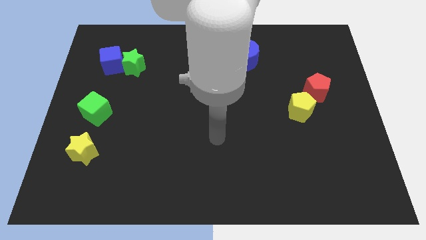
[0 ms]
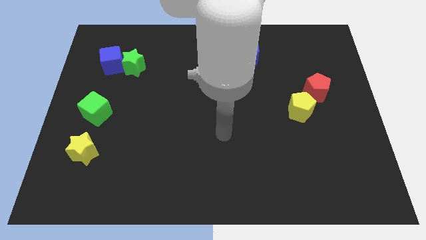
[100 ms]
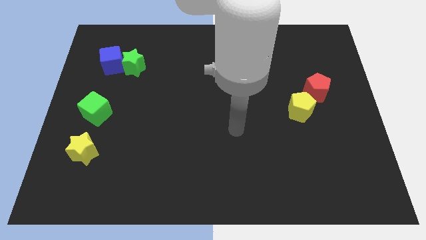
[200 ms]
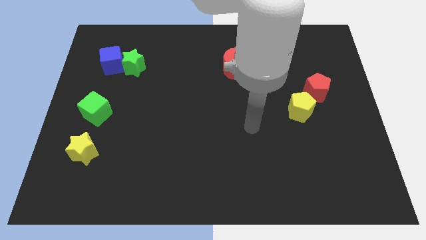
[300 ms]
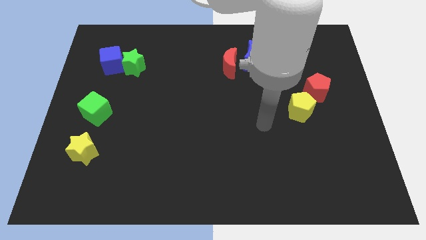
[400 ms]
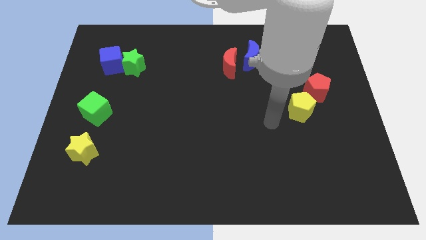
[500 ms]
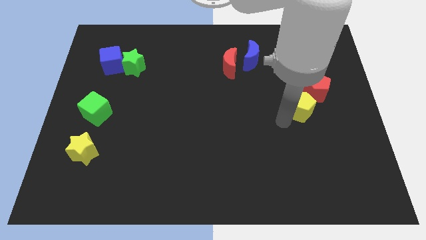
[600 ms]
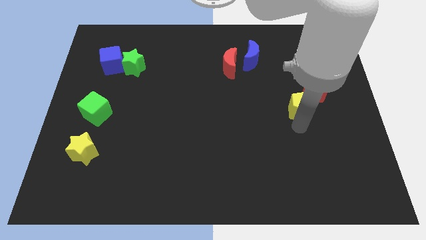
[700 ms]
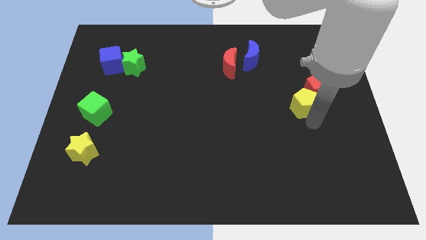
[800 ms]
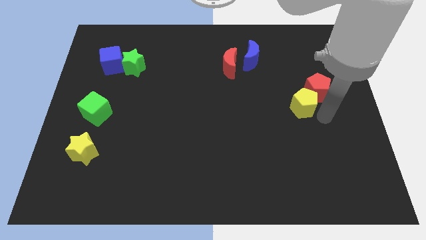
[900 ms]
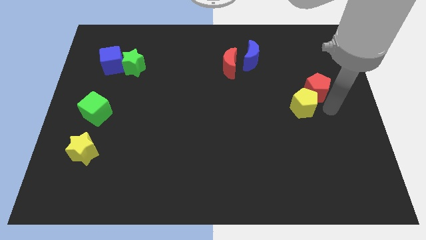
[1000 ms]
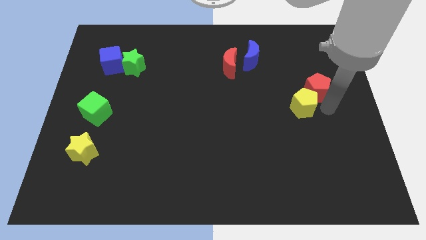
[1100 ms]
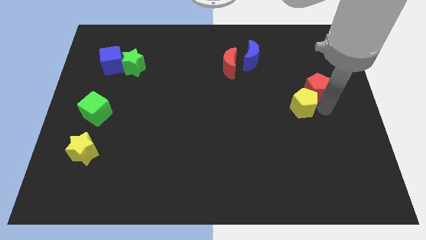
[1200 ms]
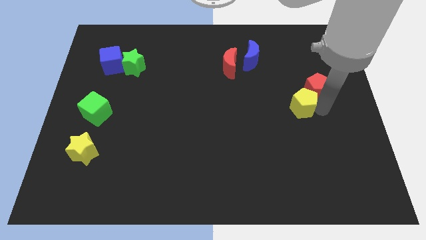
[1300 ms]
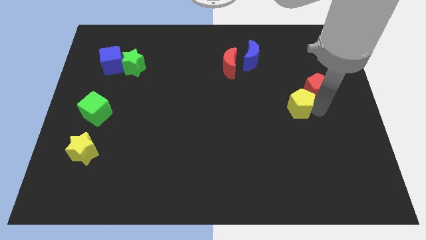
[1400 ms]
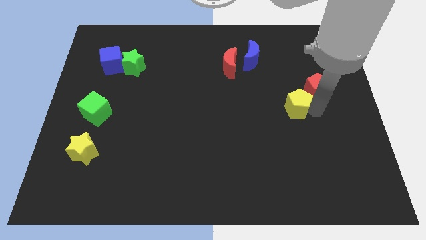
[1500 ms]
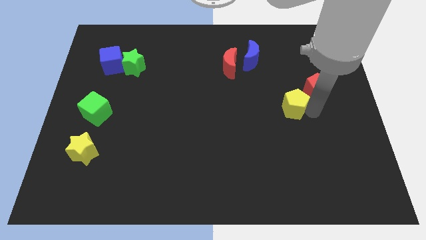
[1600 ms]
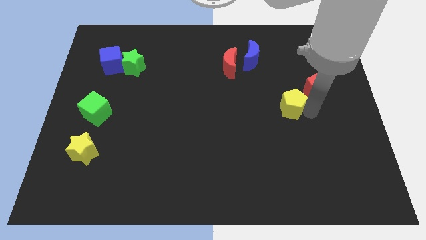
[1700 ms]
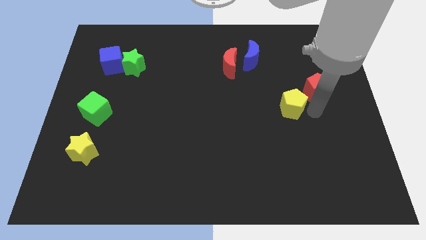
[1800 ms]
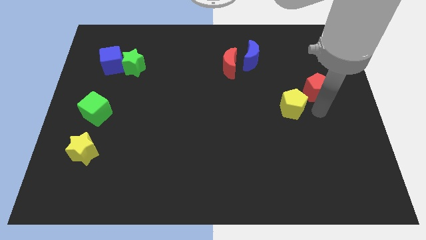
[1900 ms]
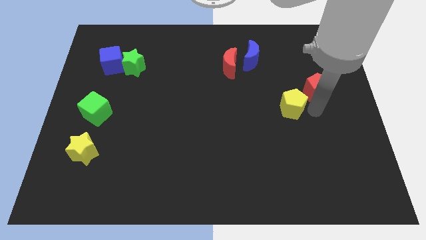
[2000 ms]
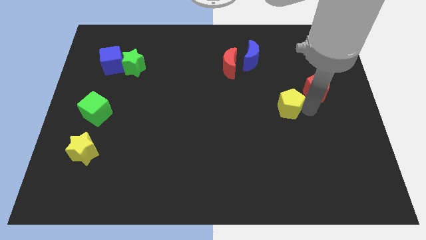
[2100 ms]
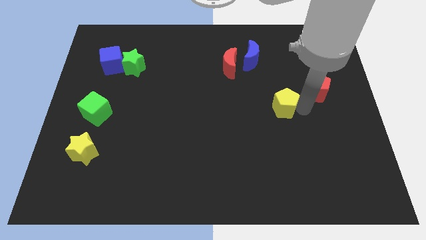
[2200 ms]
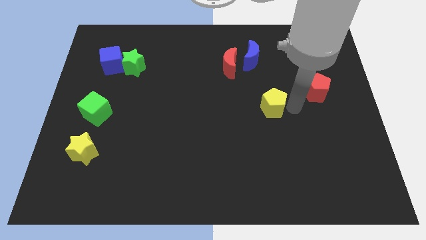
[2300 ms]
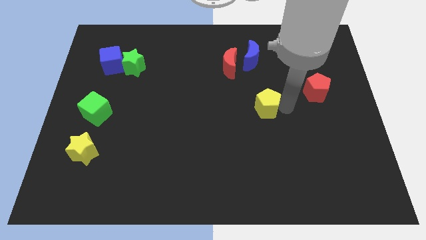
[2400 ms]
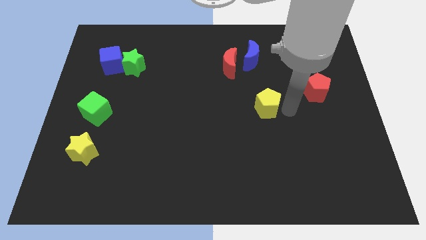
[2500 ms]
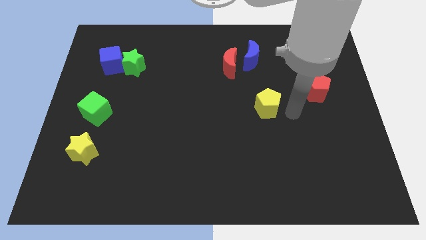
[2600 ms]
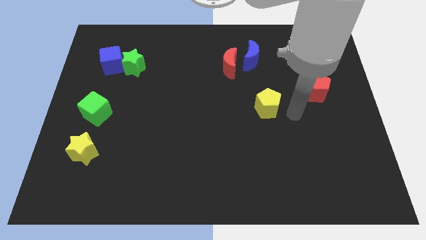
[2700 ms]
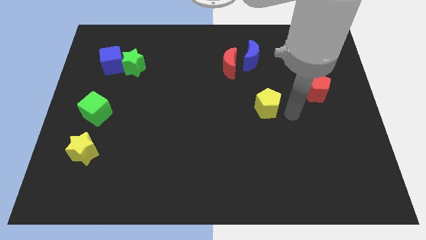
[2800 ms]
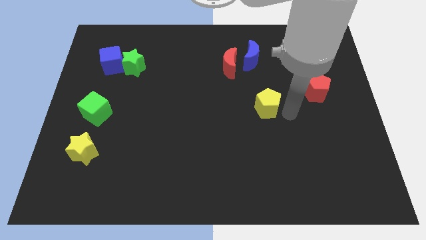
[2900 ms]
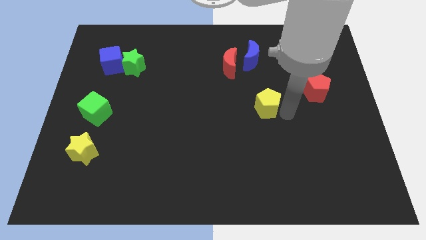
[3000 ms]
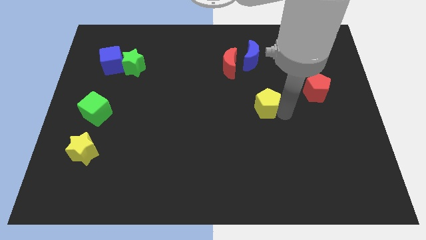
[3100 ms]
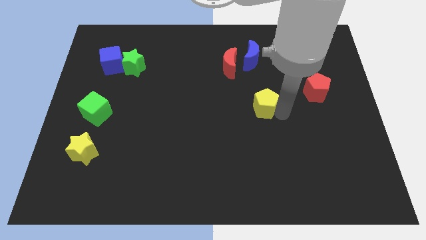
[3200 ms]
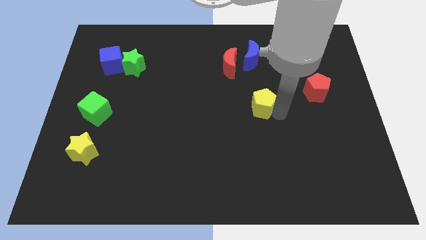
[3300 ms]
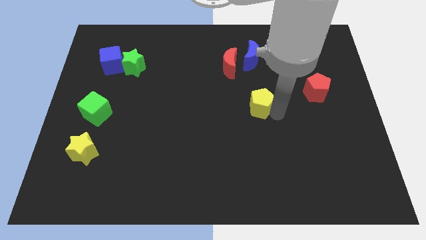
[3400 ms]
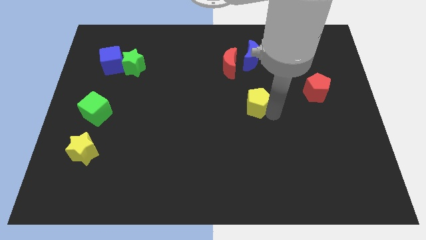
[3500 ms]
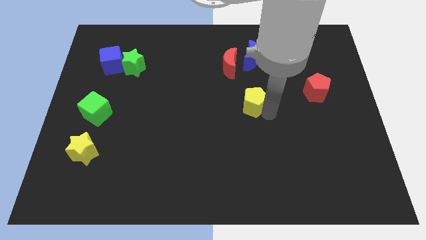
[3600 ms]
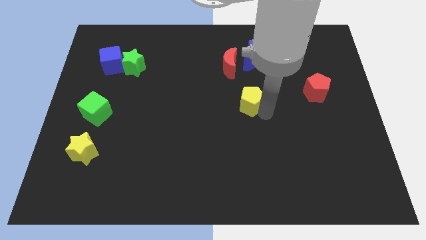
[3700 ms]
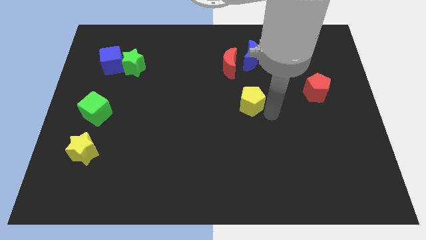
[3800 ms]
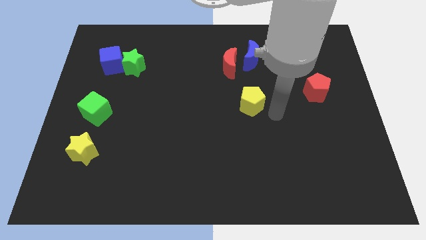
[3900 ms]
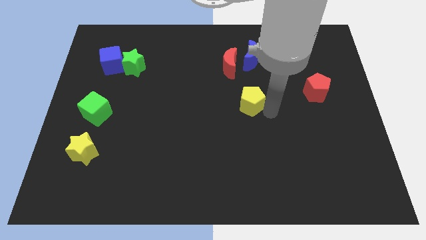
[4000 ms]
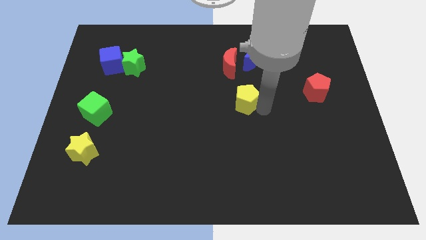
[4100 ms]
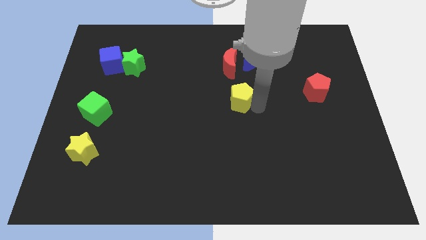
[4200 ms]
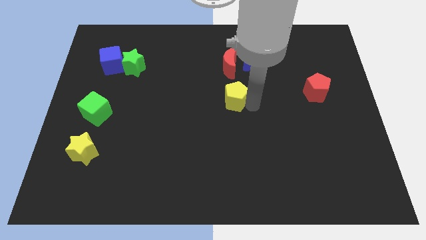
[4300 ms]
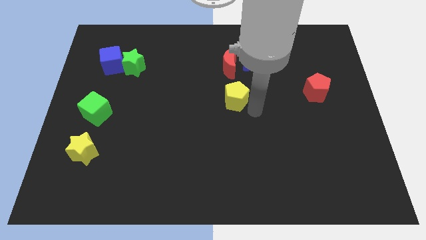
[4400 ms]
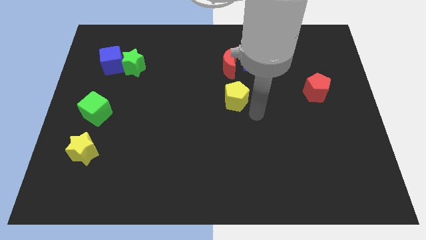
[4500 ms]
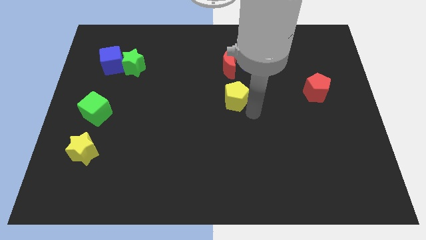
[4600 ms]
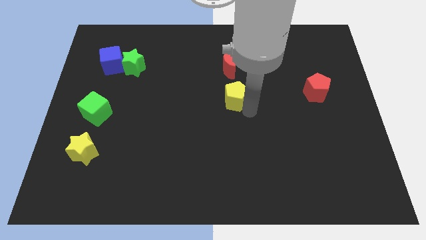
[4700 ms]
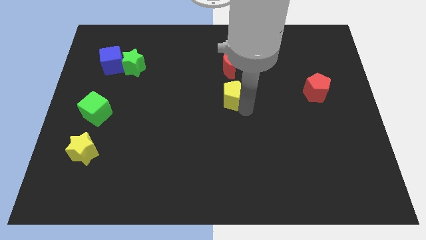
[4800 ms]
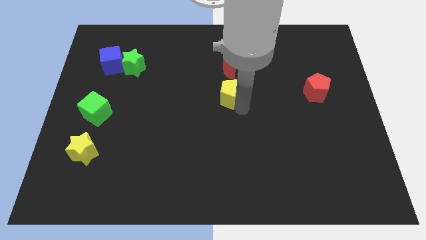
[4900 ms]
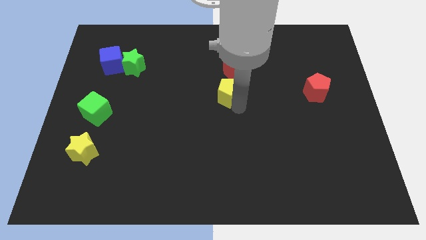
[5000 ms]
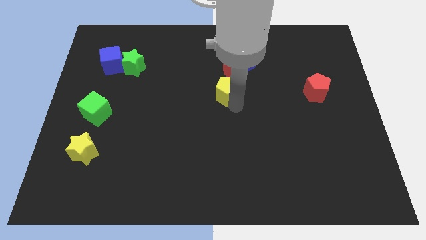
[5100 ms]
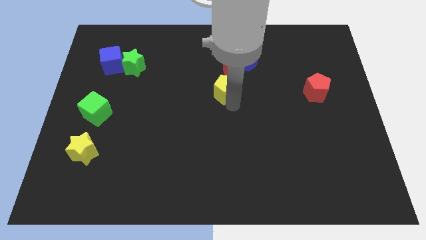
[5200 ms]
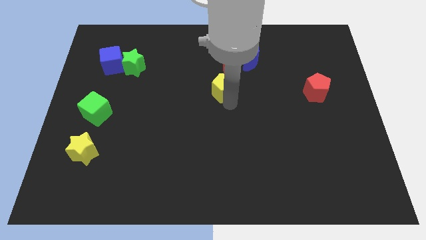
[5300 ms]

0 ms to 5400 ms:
slide the yellow pentagon to the bottom left of the red moon

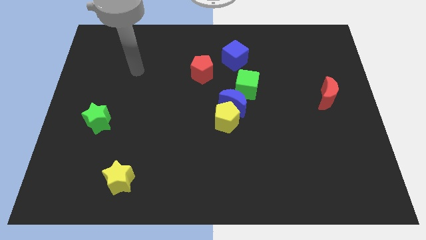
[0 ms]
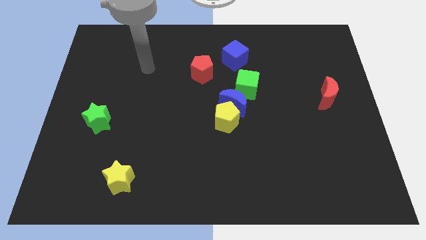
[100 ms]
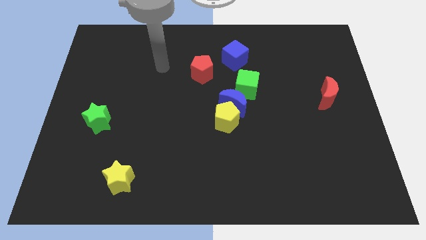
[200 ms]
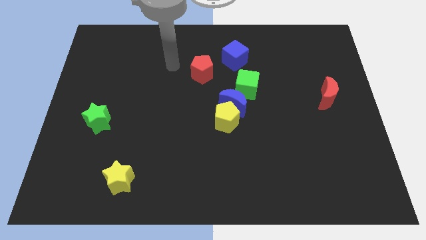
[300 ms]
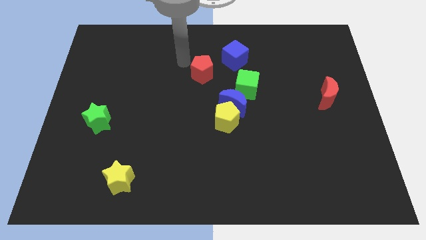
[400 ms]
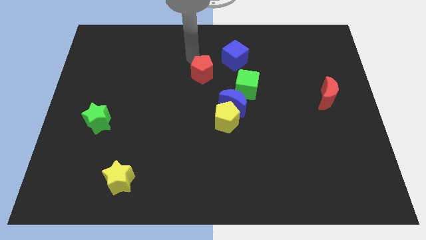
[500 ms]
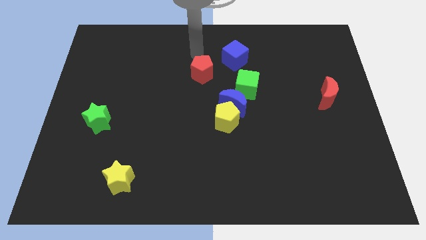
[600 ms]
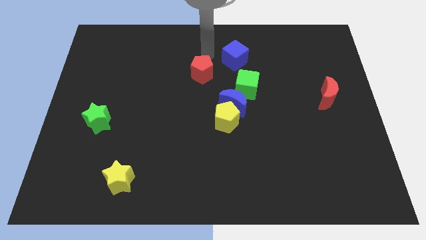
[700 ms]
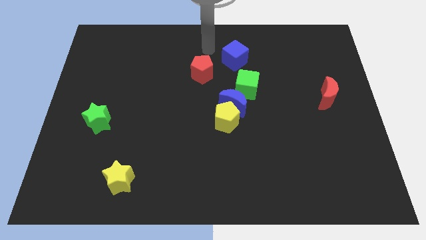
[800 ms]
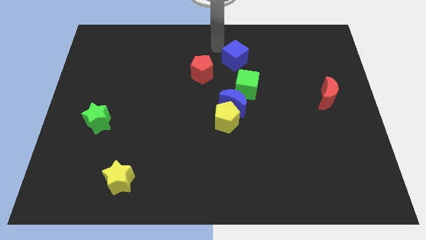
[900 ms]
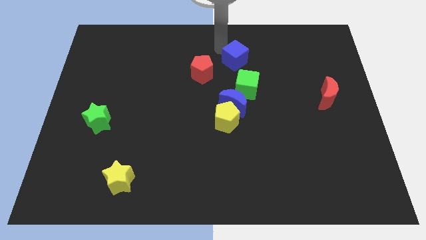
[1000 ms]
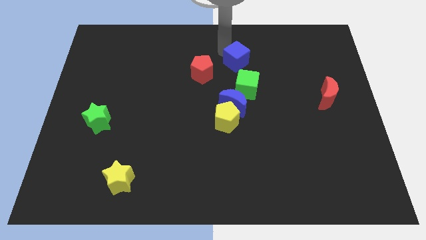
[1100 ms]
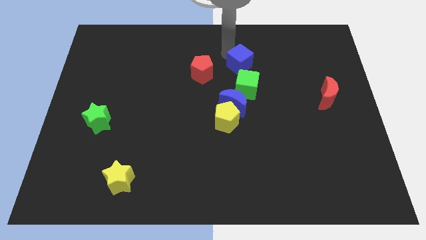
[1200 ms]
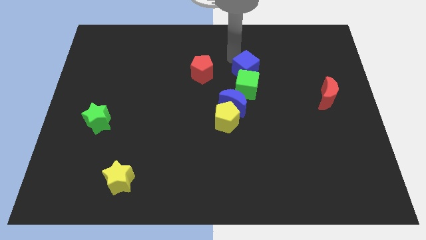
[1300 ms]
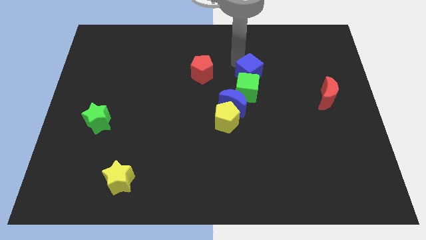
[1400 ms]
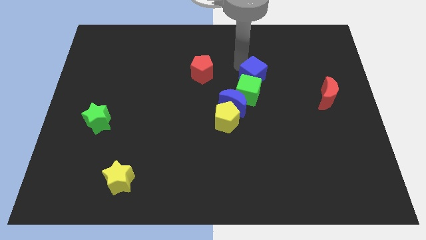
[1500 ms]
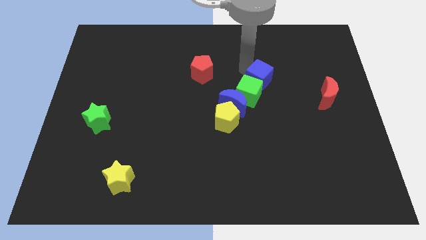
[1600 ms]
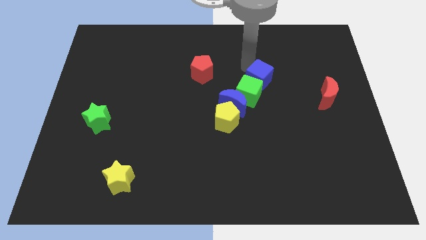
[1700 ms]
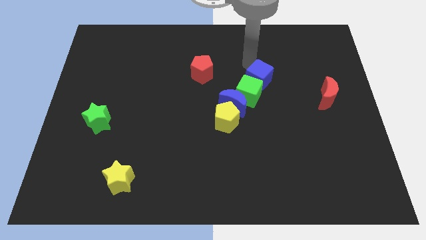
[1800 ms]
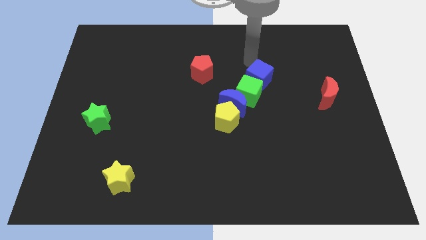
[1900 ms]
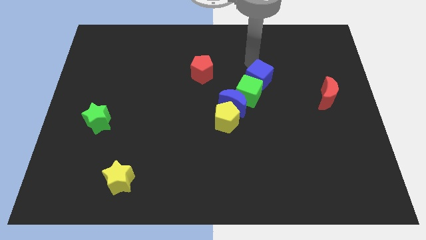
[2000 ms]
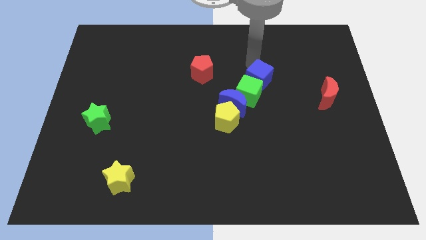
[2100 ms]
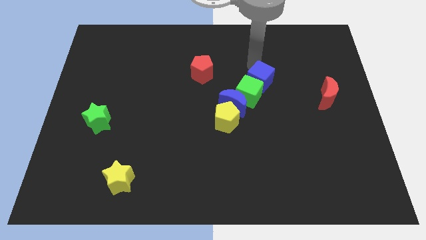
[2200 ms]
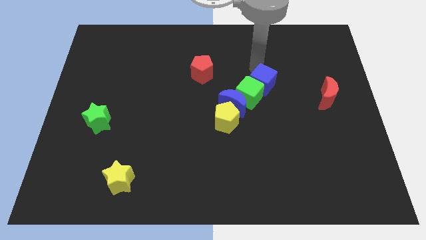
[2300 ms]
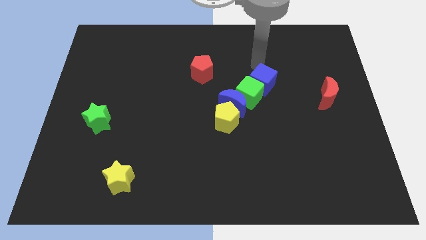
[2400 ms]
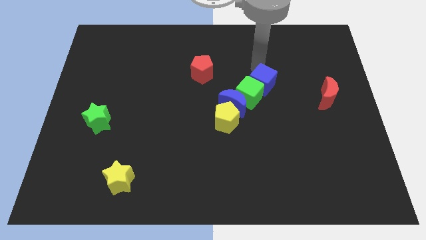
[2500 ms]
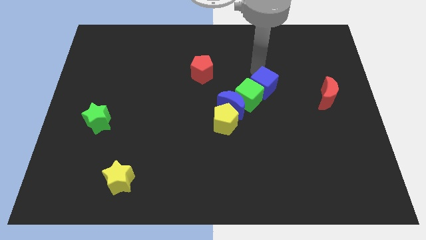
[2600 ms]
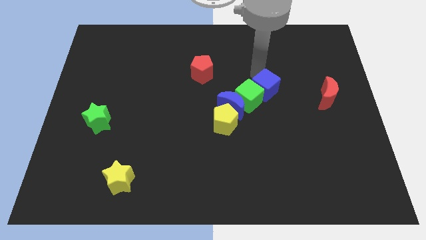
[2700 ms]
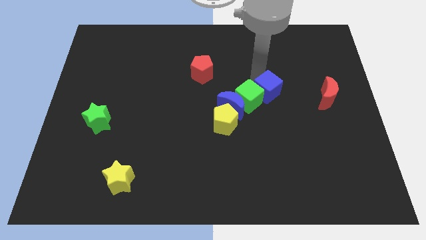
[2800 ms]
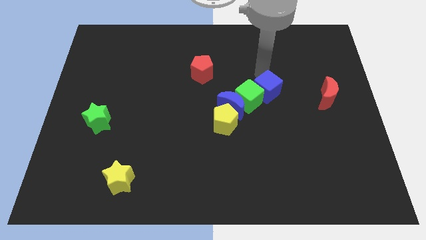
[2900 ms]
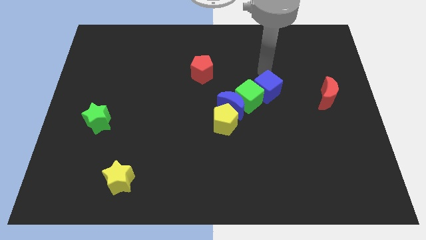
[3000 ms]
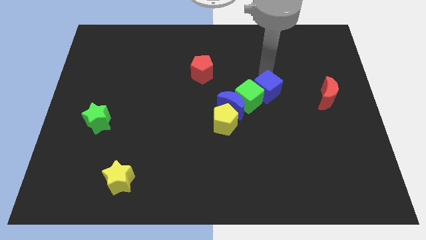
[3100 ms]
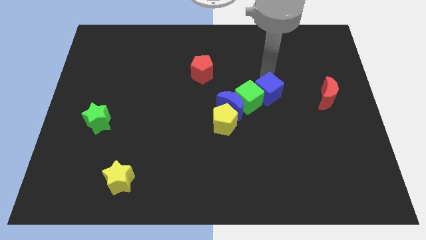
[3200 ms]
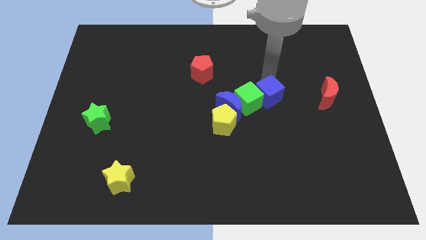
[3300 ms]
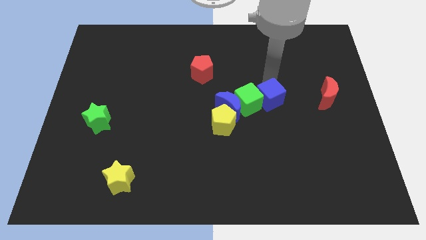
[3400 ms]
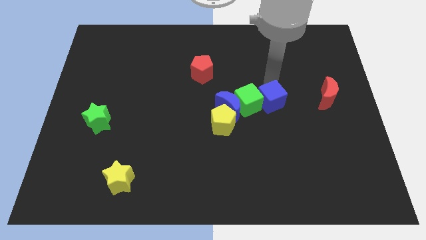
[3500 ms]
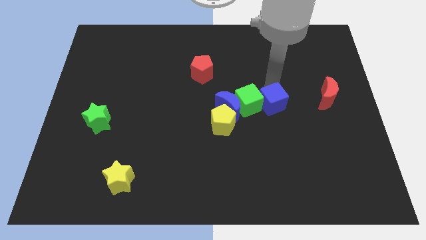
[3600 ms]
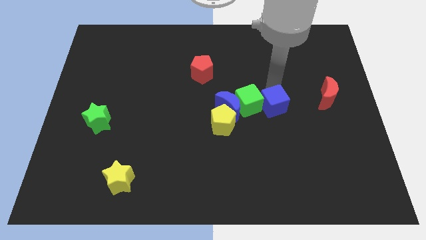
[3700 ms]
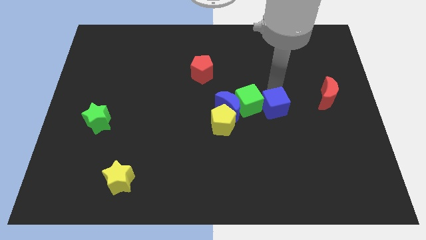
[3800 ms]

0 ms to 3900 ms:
push the blue cube right of the yellow pentagon
